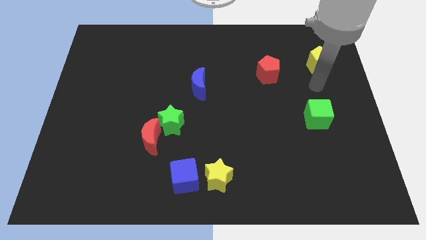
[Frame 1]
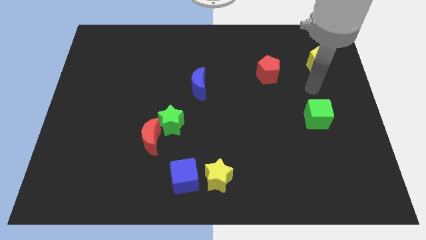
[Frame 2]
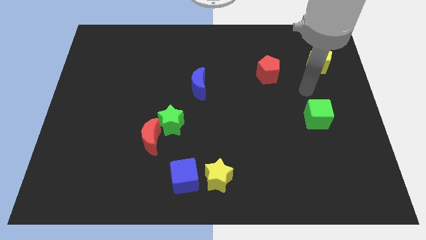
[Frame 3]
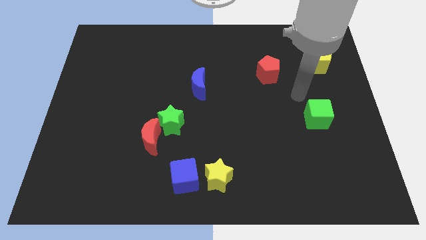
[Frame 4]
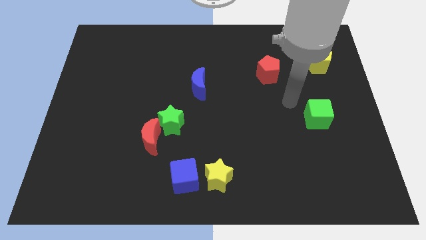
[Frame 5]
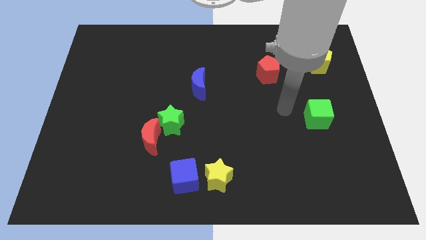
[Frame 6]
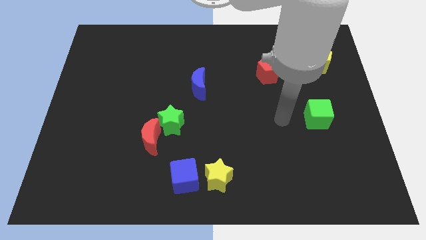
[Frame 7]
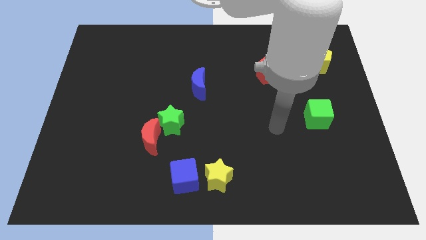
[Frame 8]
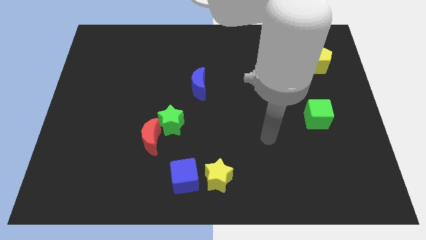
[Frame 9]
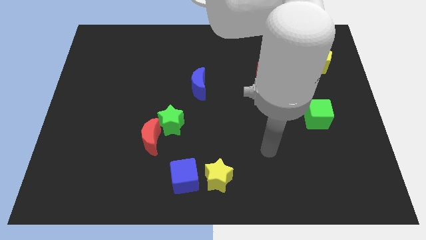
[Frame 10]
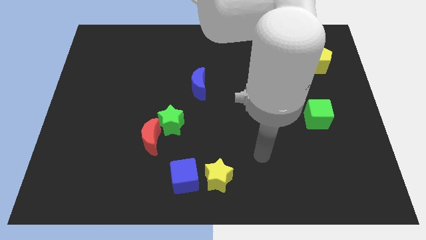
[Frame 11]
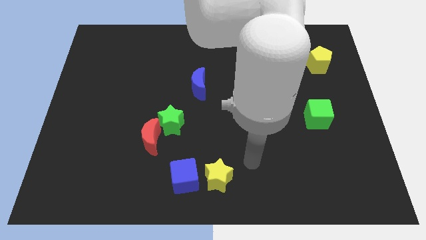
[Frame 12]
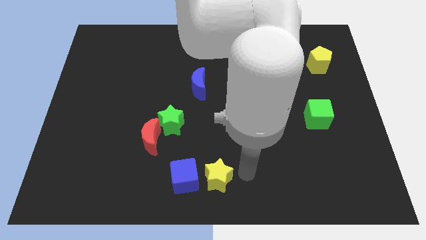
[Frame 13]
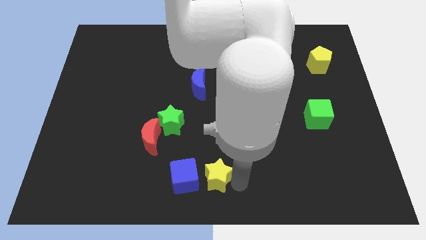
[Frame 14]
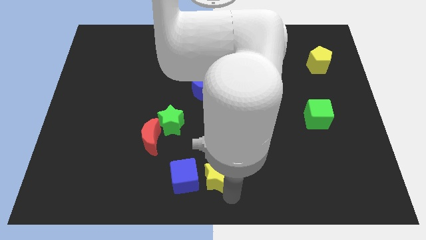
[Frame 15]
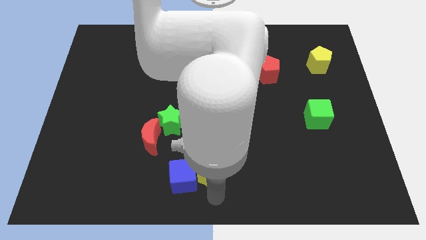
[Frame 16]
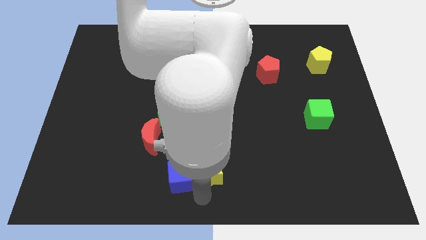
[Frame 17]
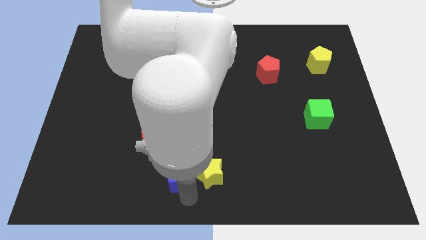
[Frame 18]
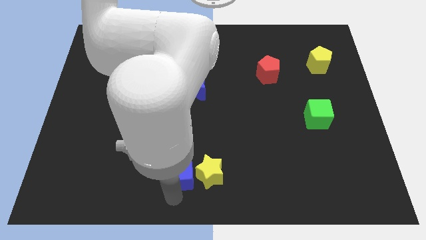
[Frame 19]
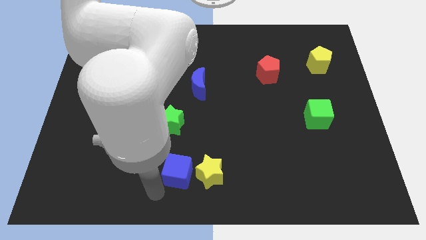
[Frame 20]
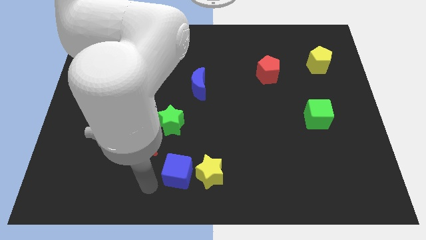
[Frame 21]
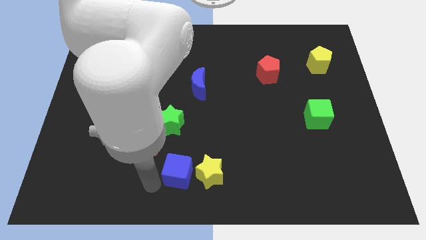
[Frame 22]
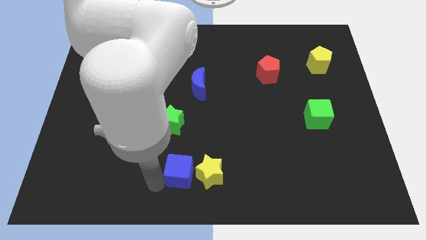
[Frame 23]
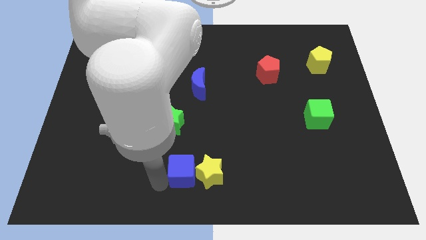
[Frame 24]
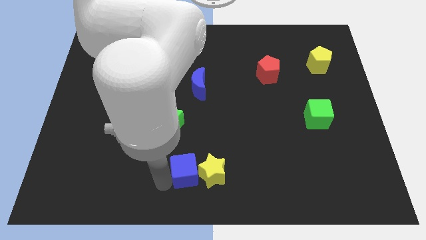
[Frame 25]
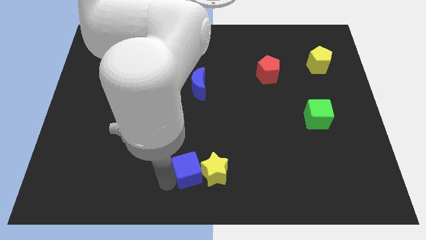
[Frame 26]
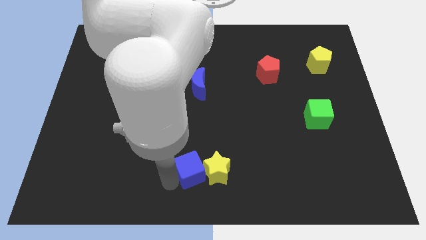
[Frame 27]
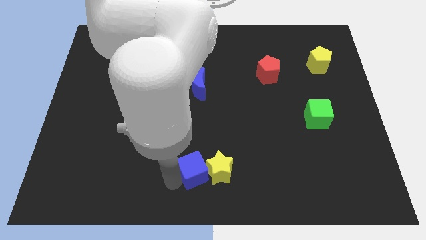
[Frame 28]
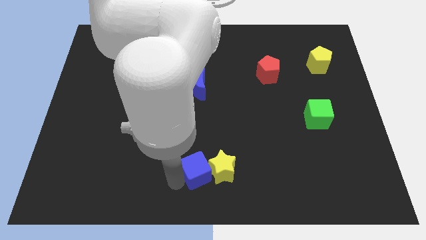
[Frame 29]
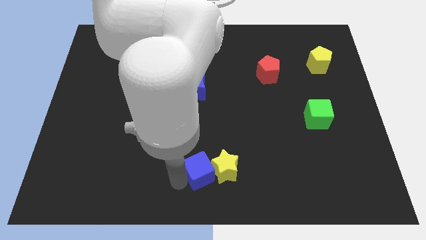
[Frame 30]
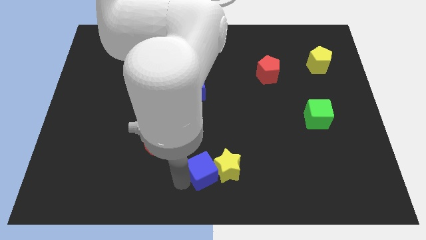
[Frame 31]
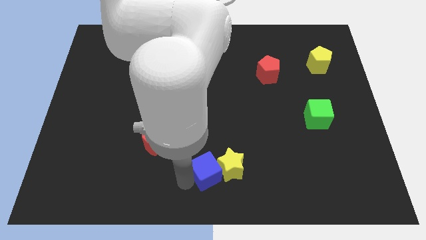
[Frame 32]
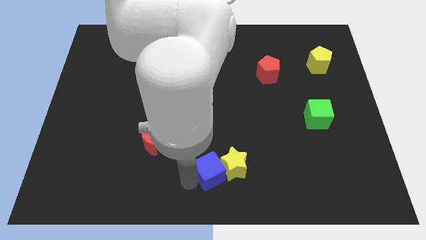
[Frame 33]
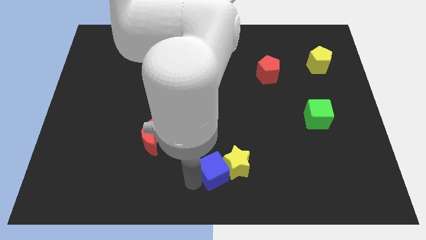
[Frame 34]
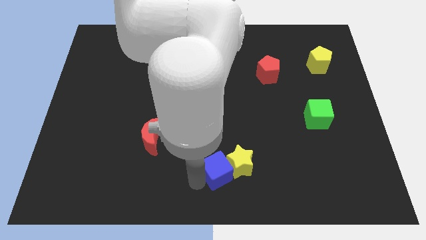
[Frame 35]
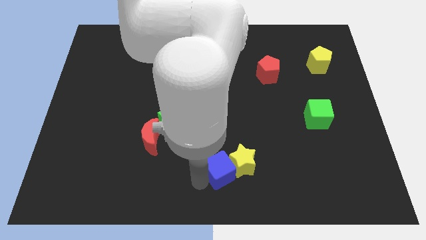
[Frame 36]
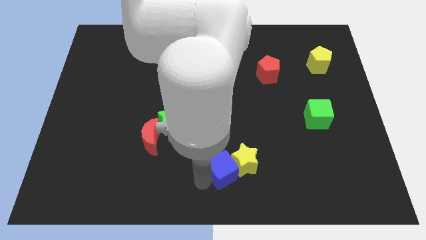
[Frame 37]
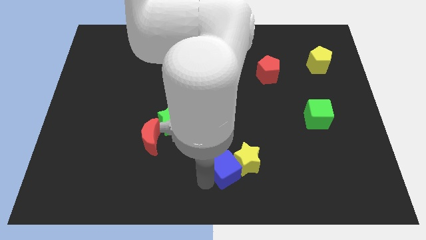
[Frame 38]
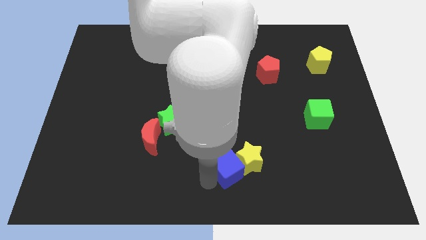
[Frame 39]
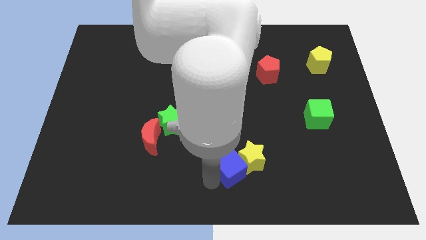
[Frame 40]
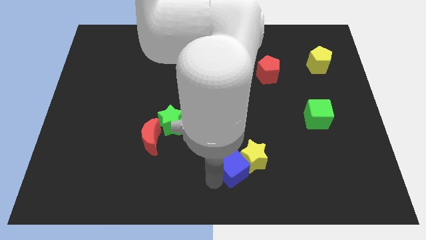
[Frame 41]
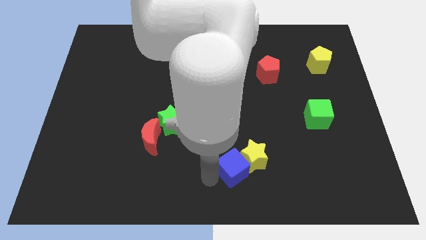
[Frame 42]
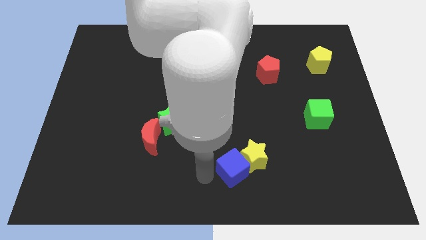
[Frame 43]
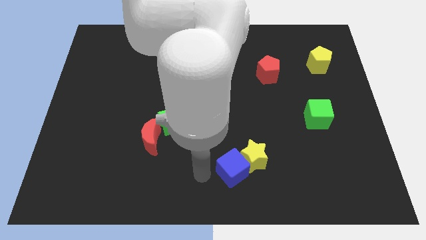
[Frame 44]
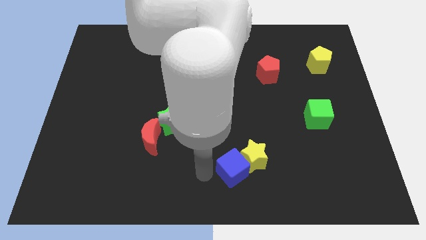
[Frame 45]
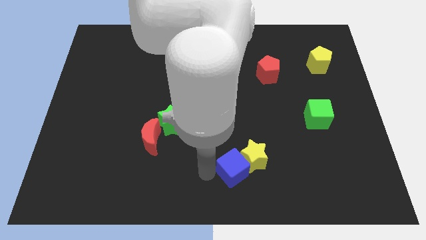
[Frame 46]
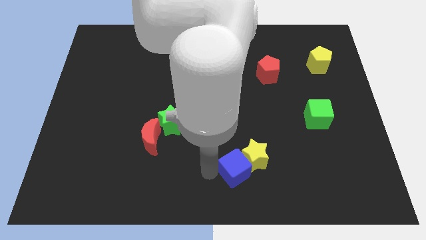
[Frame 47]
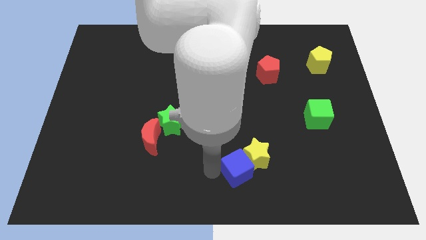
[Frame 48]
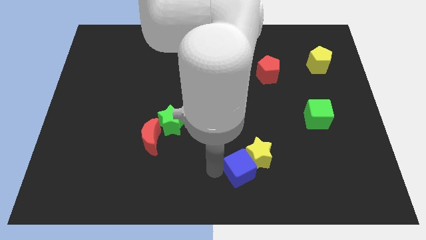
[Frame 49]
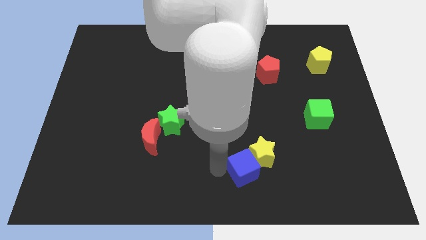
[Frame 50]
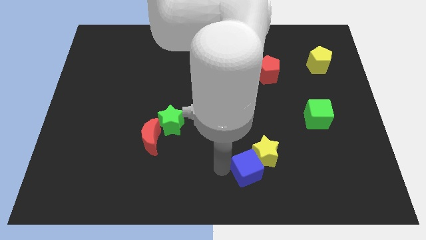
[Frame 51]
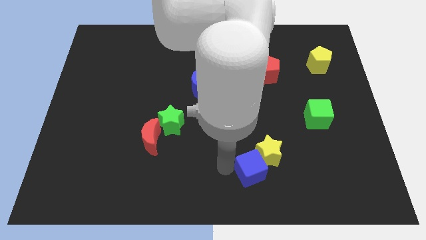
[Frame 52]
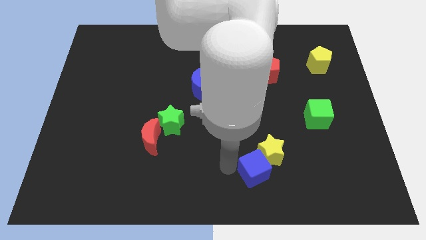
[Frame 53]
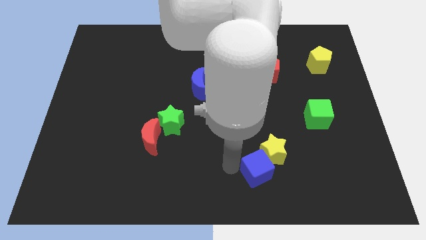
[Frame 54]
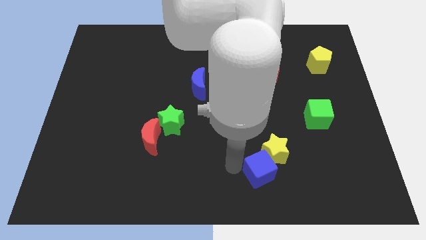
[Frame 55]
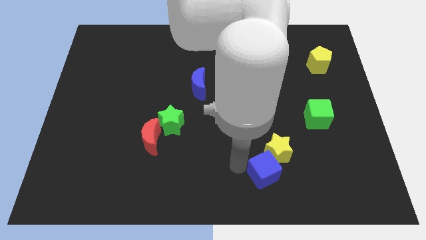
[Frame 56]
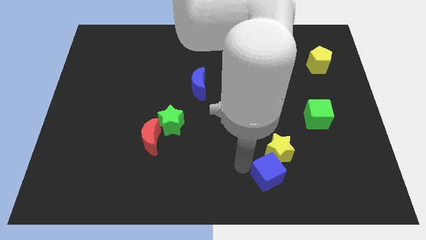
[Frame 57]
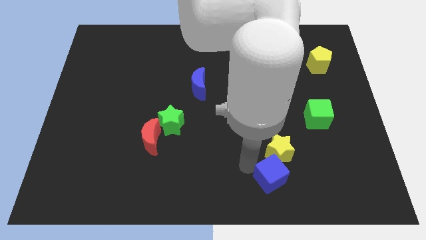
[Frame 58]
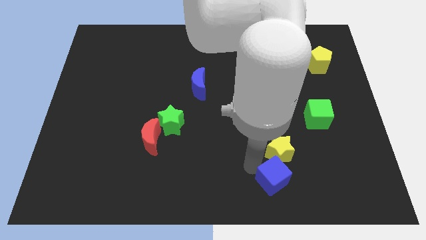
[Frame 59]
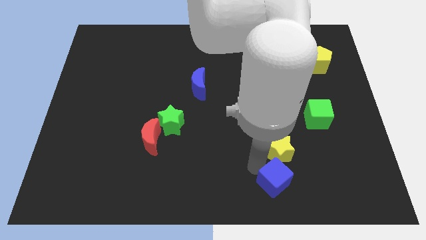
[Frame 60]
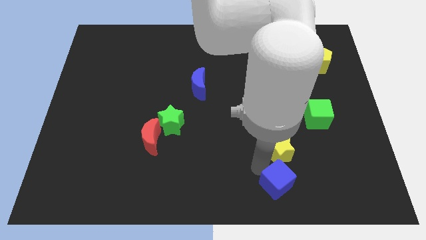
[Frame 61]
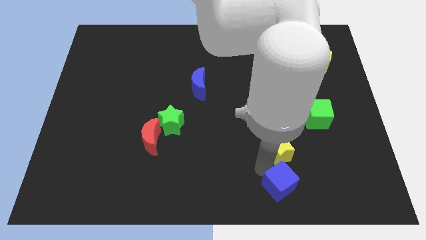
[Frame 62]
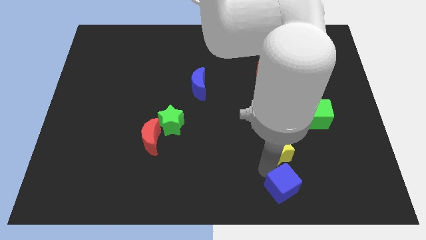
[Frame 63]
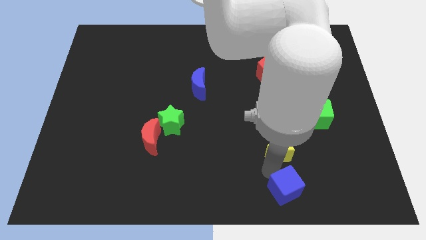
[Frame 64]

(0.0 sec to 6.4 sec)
slide the blue cube to the right

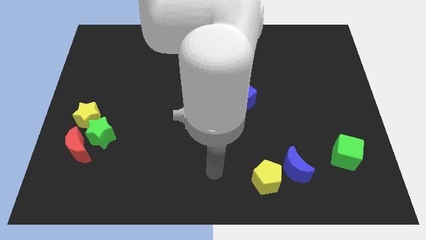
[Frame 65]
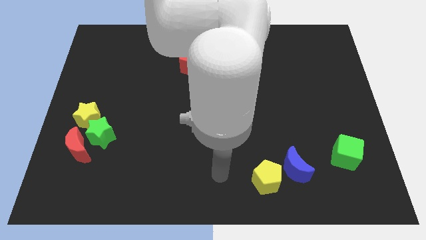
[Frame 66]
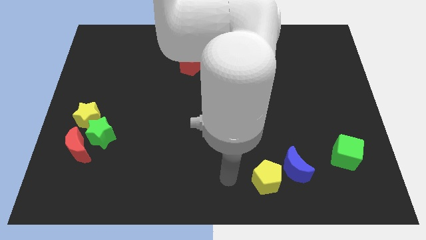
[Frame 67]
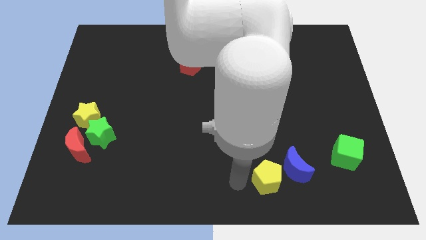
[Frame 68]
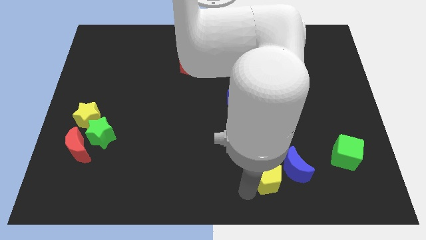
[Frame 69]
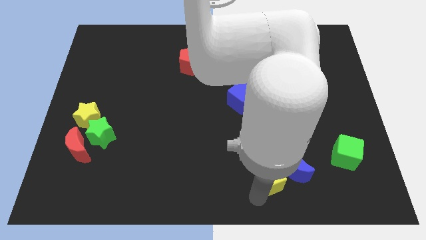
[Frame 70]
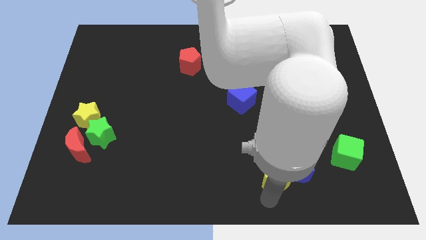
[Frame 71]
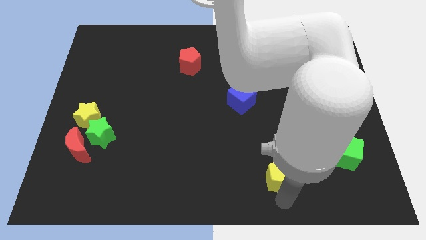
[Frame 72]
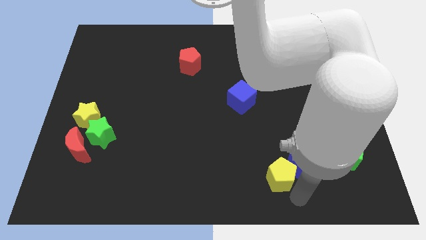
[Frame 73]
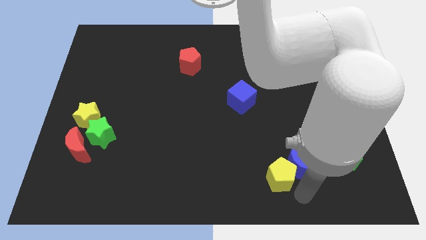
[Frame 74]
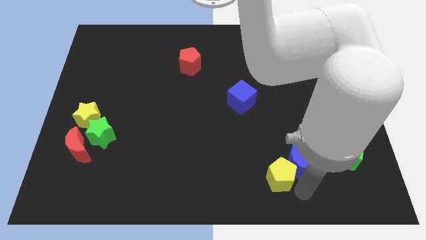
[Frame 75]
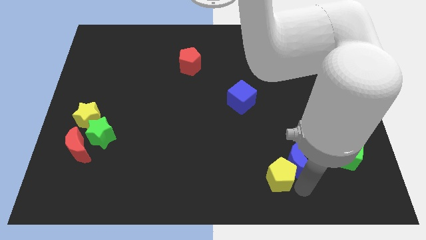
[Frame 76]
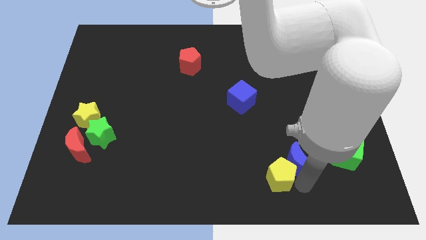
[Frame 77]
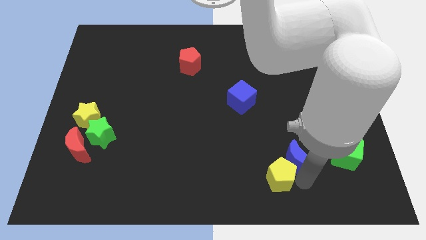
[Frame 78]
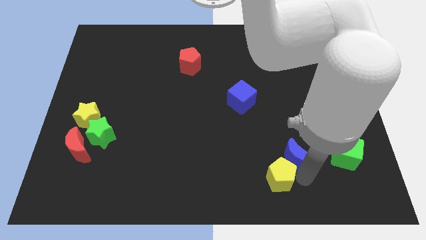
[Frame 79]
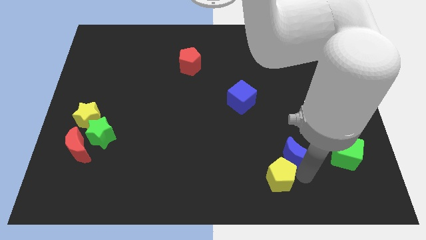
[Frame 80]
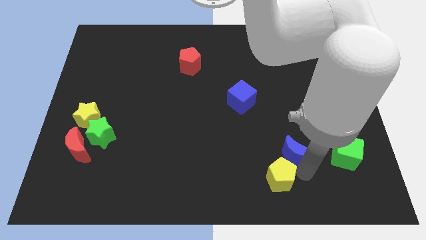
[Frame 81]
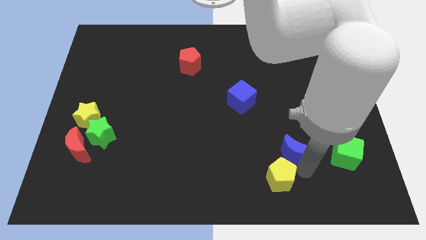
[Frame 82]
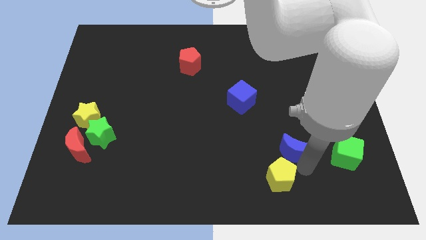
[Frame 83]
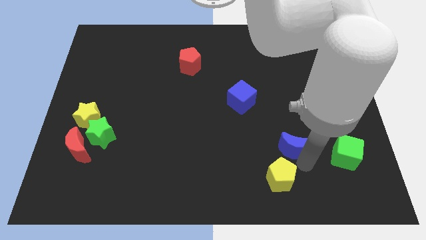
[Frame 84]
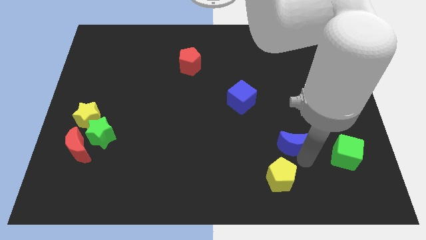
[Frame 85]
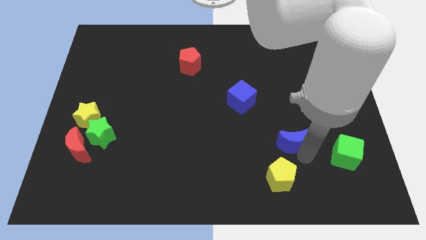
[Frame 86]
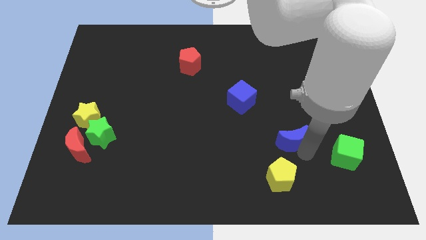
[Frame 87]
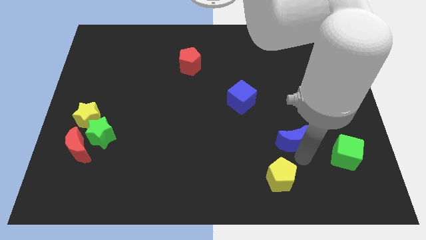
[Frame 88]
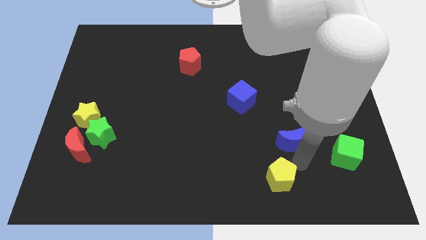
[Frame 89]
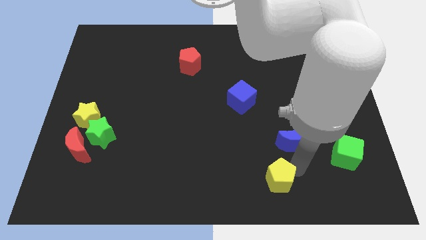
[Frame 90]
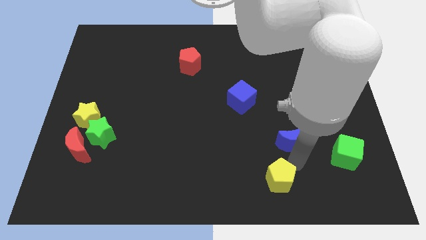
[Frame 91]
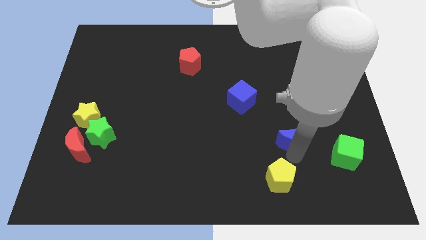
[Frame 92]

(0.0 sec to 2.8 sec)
slide the blue moon up a little
